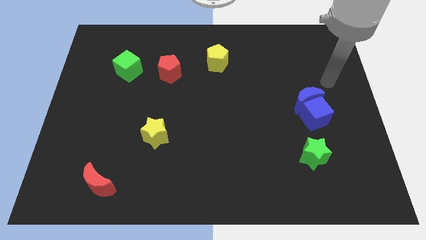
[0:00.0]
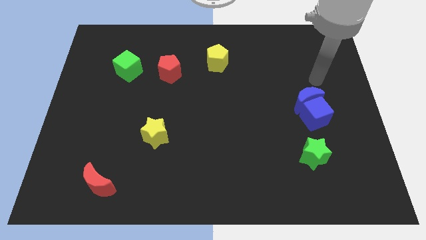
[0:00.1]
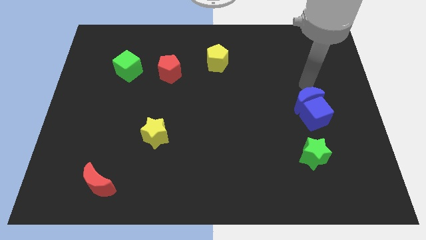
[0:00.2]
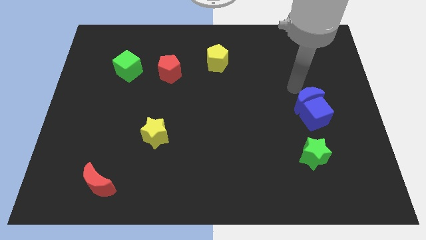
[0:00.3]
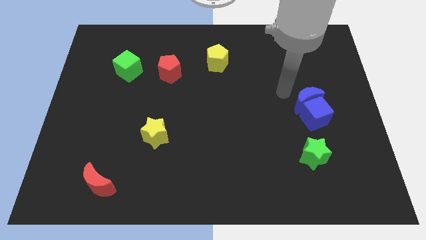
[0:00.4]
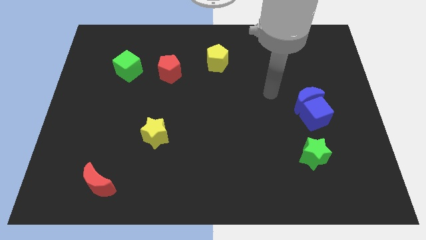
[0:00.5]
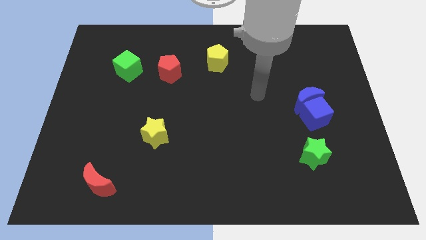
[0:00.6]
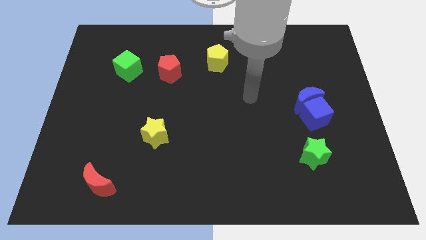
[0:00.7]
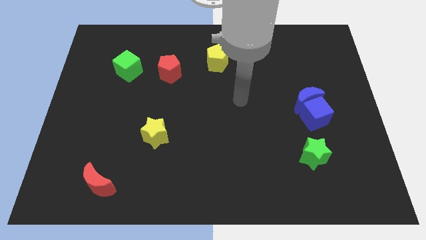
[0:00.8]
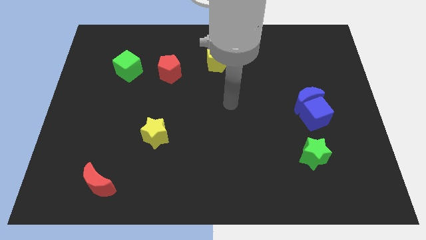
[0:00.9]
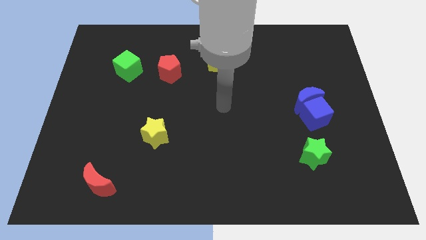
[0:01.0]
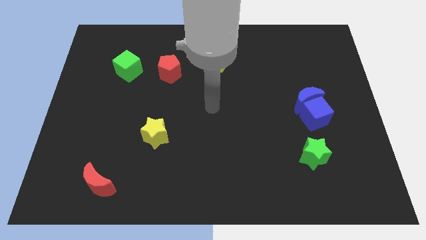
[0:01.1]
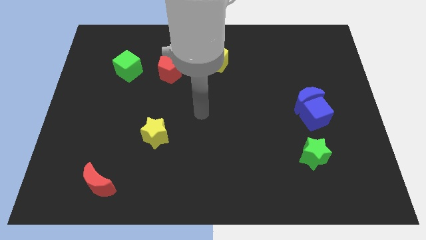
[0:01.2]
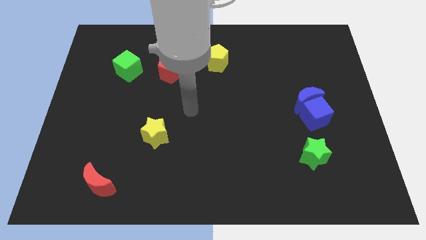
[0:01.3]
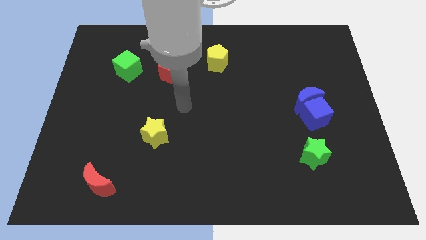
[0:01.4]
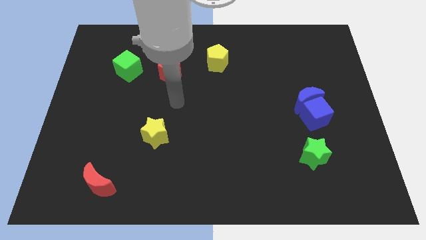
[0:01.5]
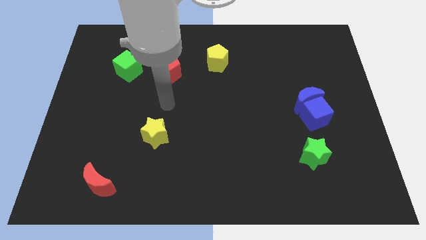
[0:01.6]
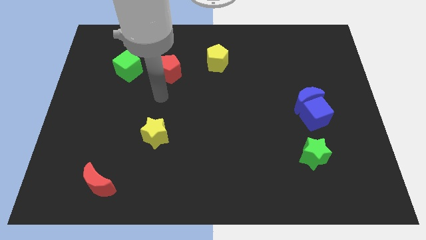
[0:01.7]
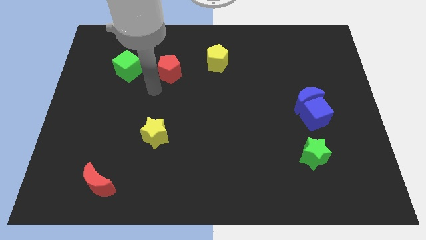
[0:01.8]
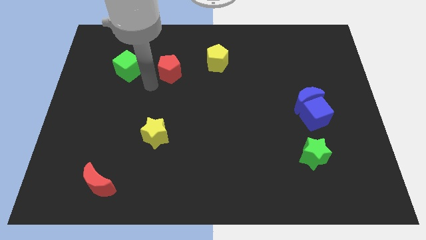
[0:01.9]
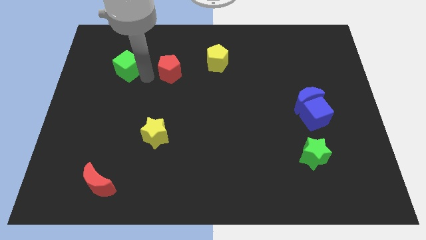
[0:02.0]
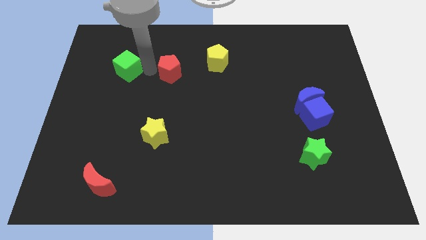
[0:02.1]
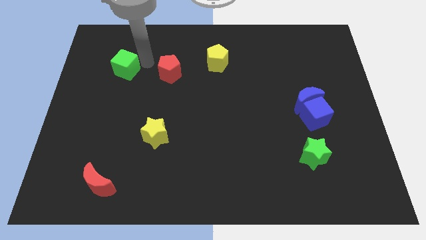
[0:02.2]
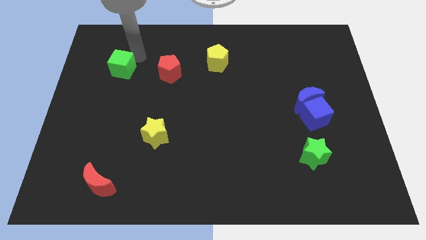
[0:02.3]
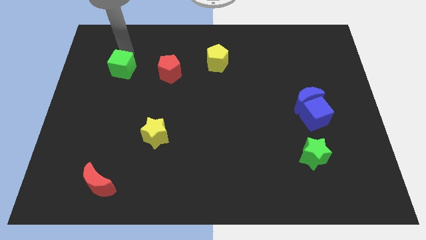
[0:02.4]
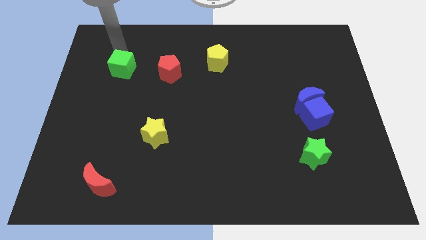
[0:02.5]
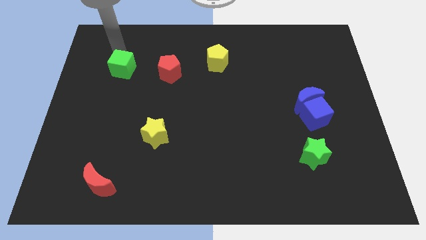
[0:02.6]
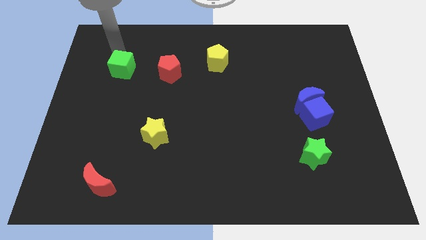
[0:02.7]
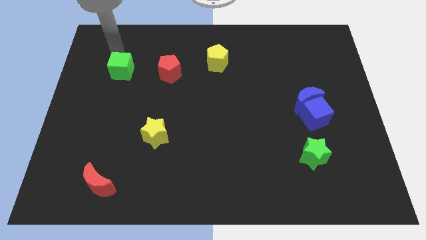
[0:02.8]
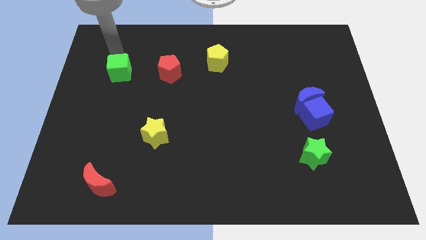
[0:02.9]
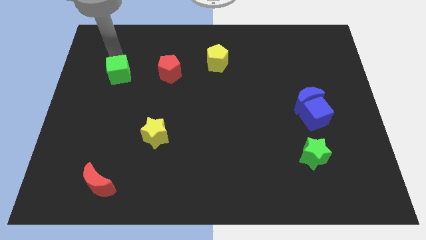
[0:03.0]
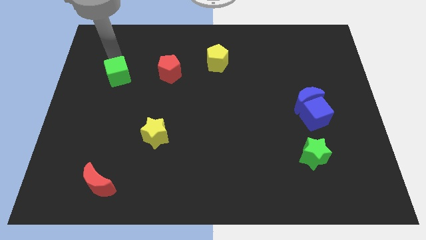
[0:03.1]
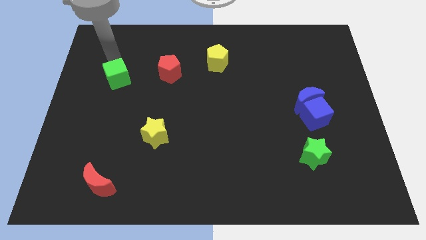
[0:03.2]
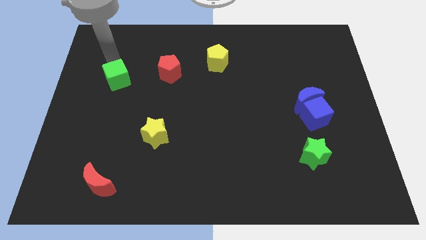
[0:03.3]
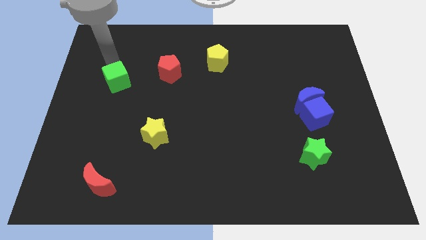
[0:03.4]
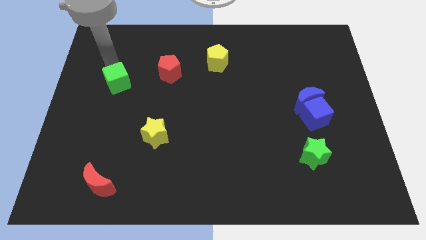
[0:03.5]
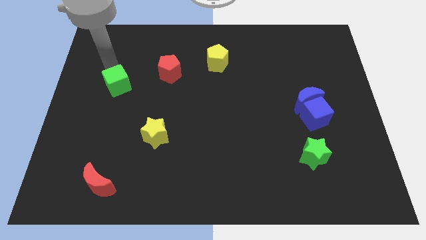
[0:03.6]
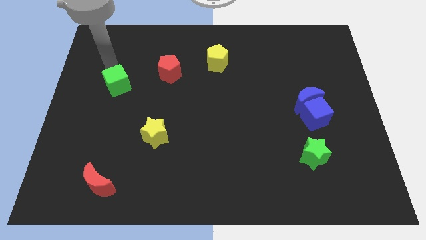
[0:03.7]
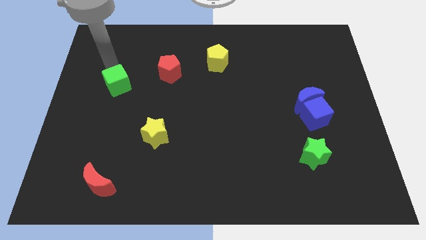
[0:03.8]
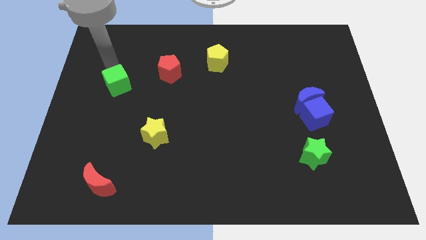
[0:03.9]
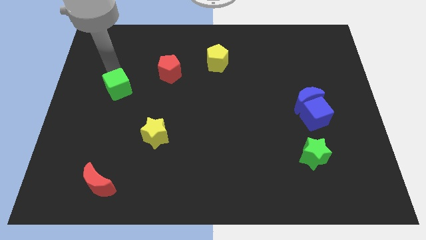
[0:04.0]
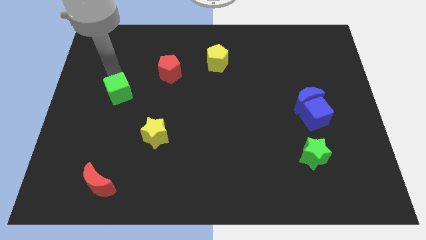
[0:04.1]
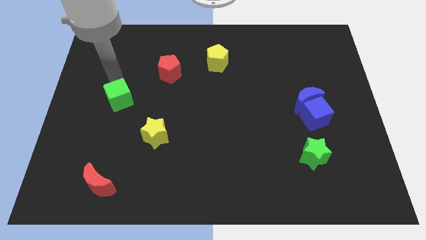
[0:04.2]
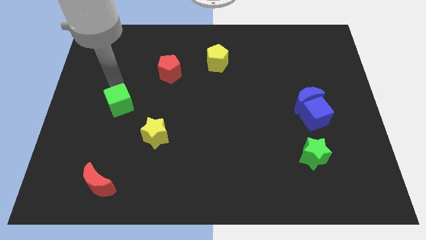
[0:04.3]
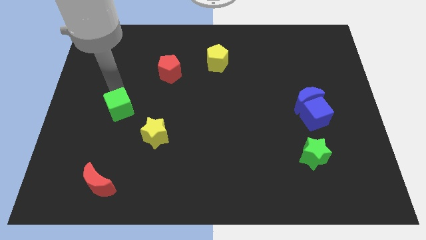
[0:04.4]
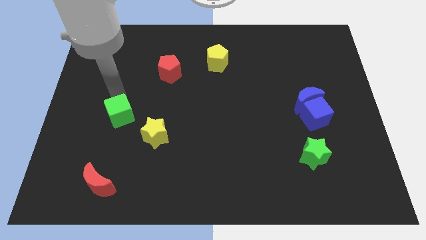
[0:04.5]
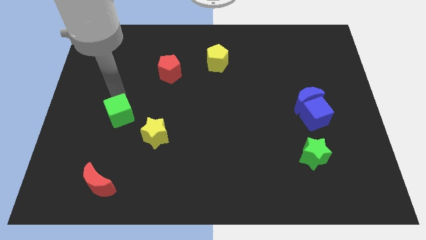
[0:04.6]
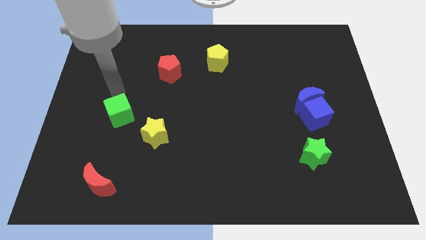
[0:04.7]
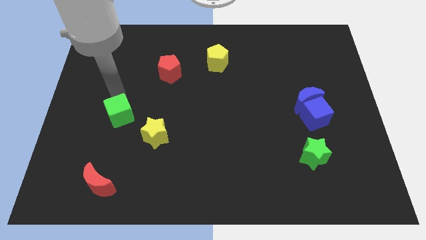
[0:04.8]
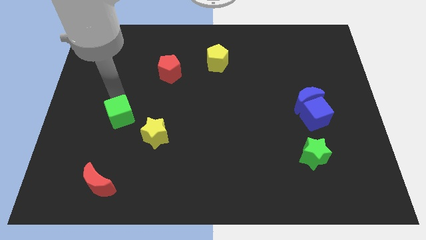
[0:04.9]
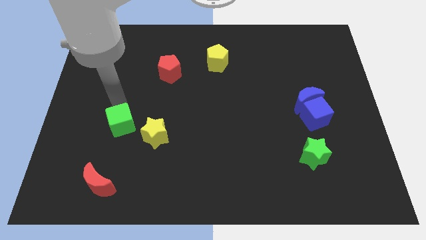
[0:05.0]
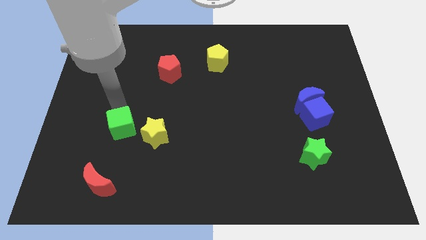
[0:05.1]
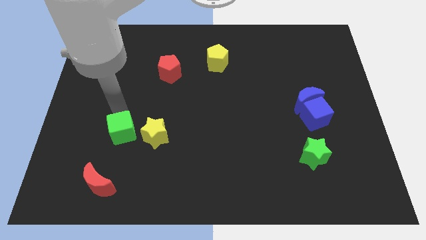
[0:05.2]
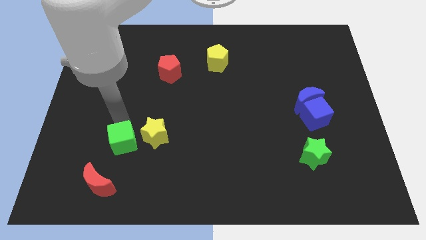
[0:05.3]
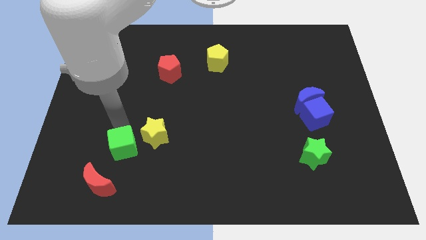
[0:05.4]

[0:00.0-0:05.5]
move the green cube to the top right side of the red moon

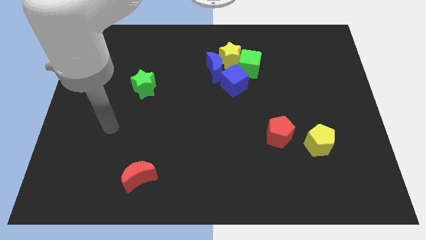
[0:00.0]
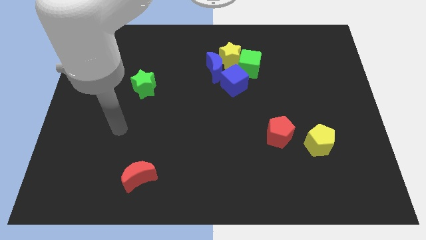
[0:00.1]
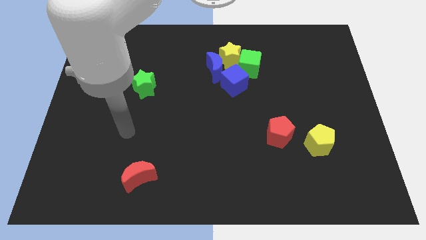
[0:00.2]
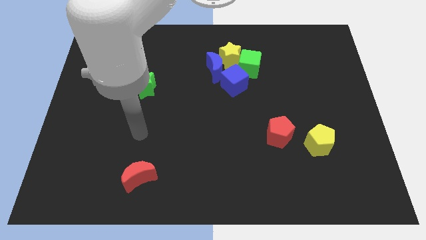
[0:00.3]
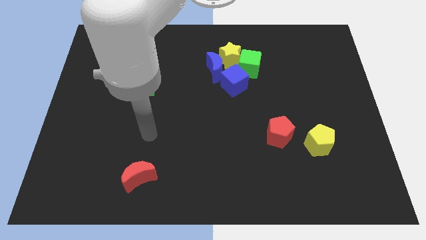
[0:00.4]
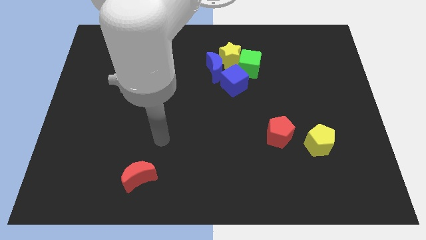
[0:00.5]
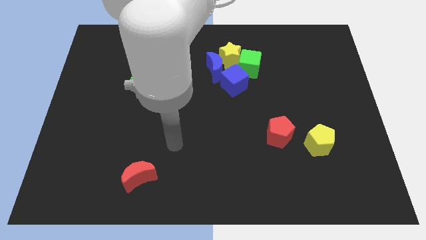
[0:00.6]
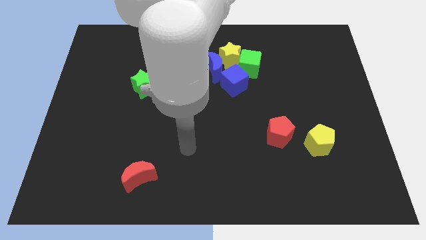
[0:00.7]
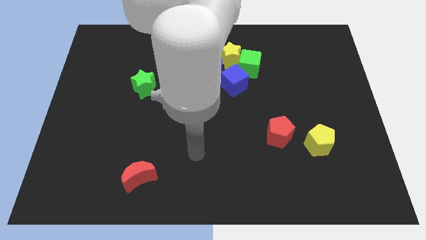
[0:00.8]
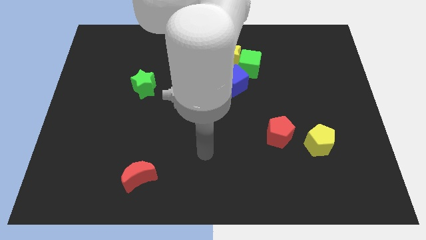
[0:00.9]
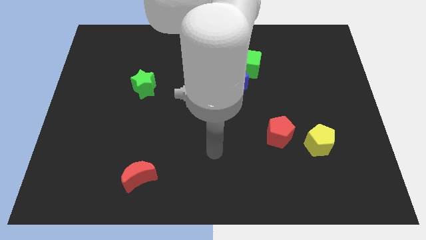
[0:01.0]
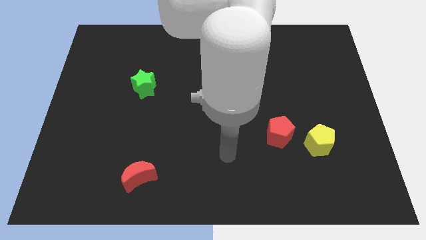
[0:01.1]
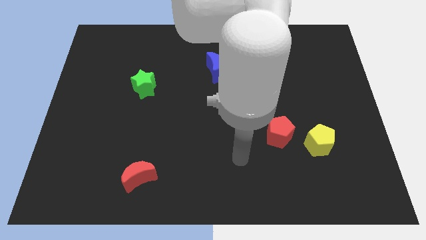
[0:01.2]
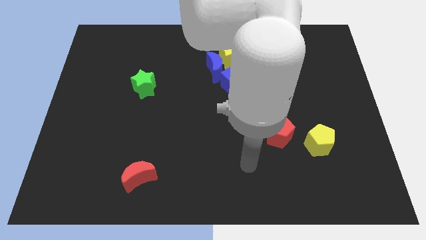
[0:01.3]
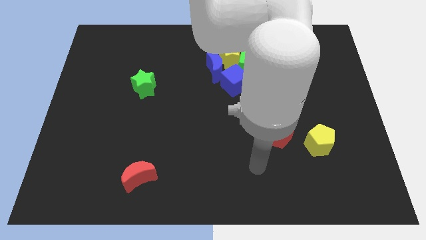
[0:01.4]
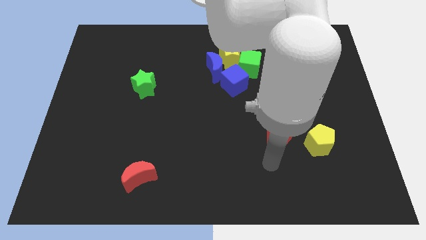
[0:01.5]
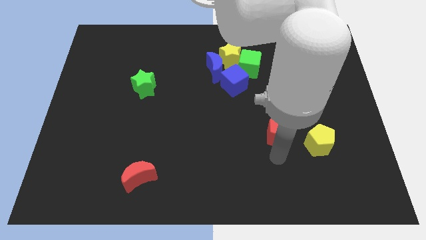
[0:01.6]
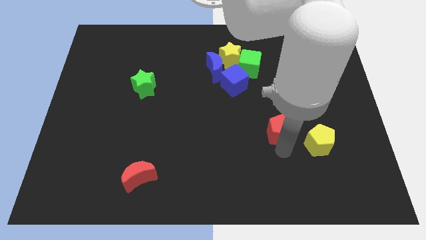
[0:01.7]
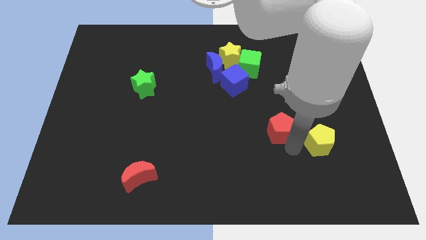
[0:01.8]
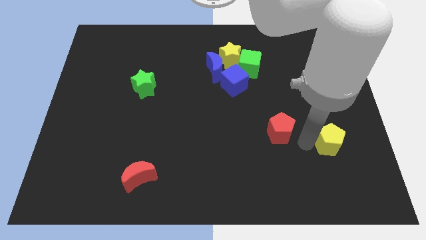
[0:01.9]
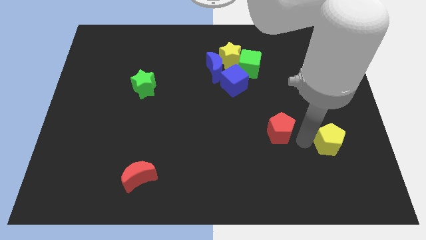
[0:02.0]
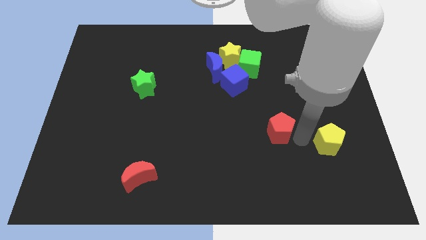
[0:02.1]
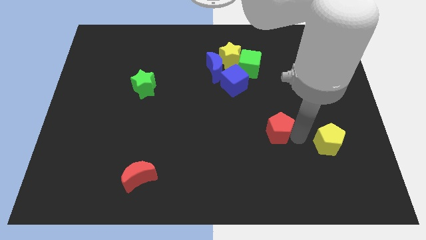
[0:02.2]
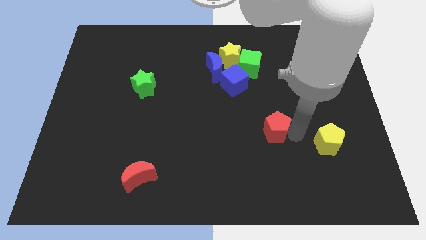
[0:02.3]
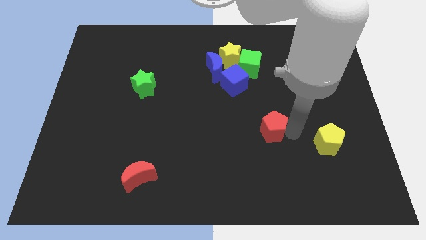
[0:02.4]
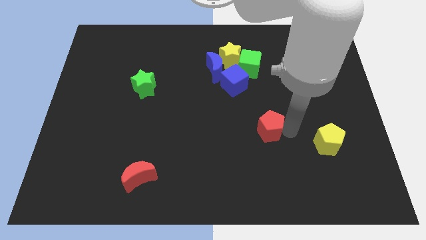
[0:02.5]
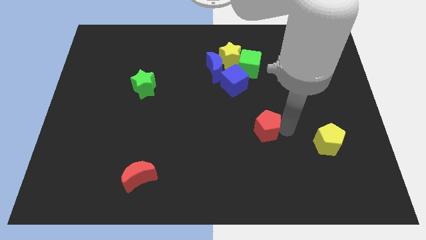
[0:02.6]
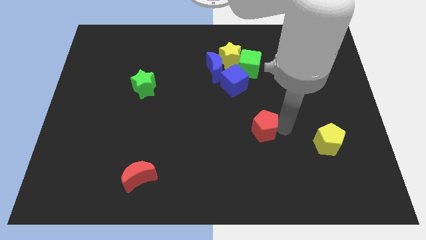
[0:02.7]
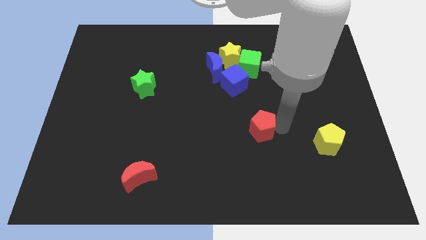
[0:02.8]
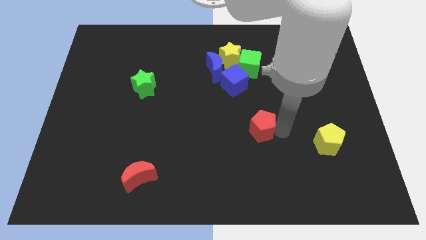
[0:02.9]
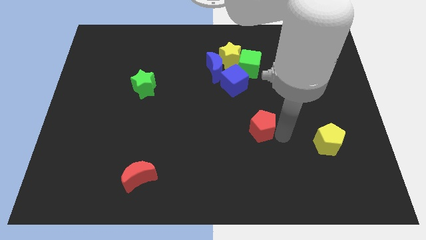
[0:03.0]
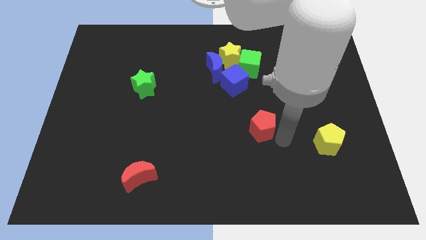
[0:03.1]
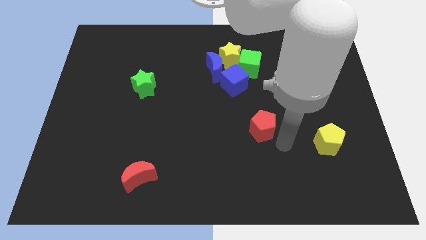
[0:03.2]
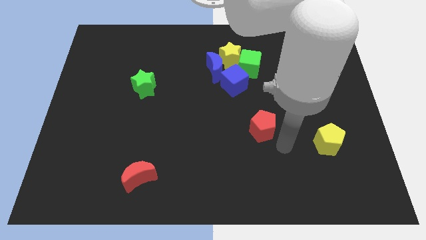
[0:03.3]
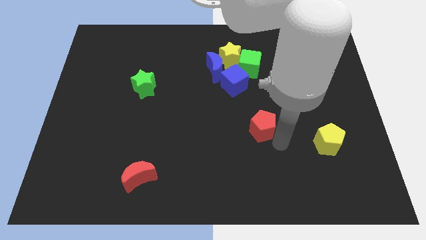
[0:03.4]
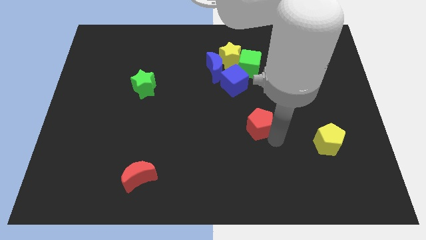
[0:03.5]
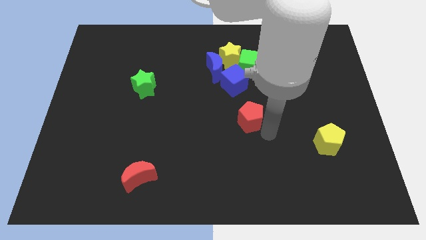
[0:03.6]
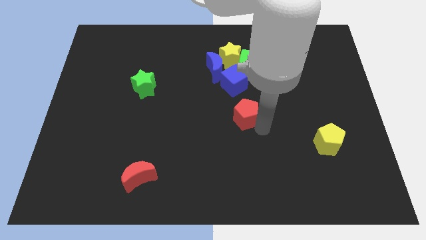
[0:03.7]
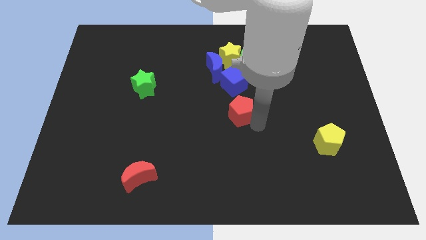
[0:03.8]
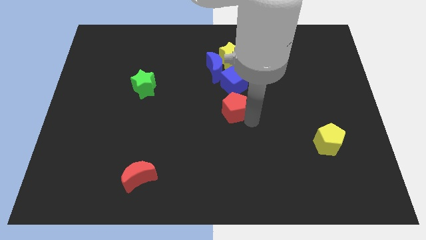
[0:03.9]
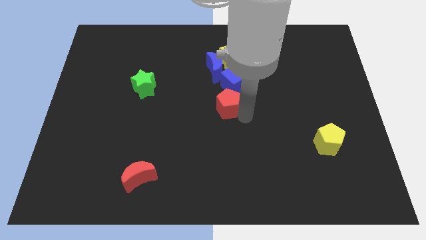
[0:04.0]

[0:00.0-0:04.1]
move the red pentagon diagonally down and to the left of the blue cube
